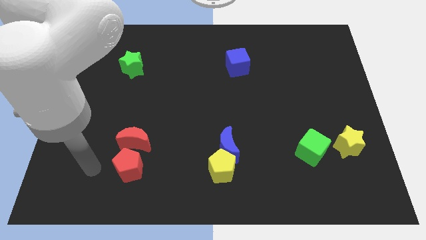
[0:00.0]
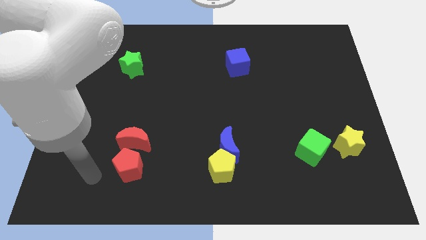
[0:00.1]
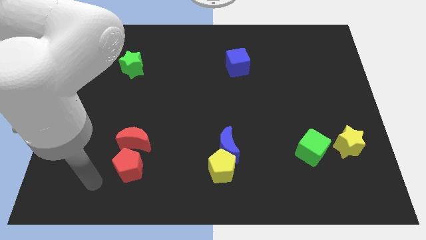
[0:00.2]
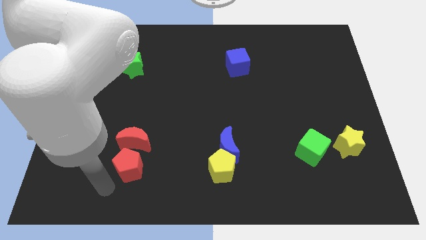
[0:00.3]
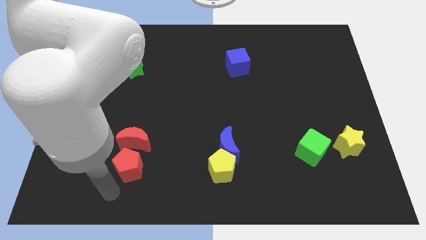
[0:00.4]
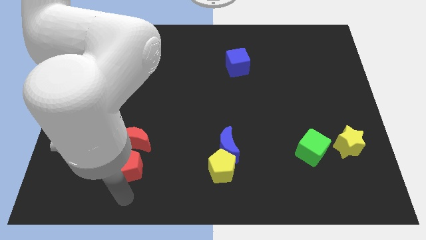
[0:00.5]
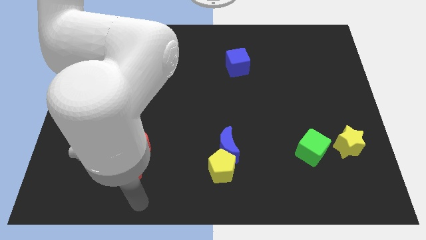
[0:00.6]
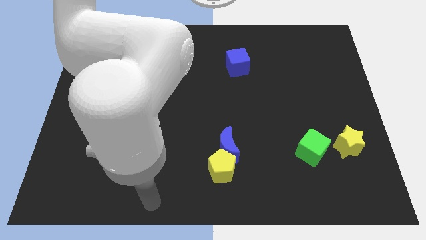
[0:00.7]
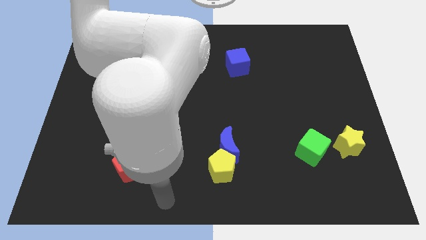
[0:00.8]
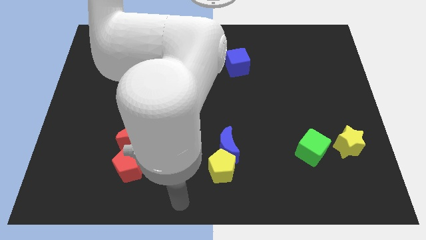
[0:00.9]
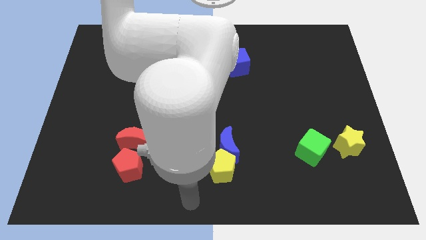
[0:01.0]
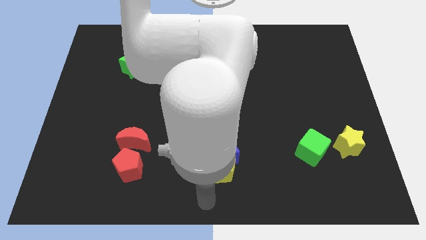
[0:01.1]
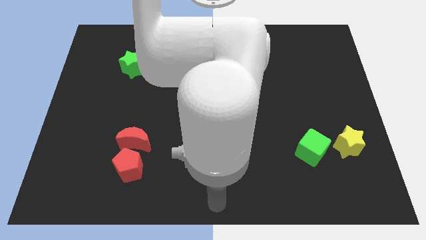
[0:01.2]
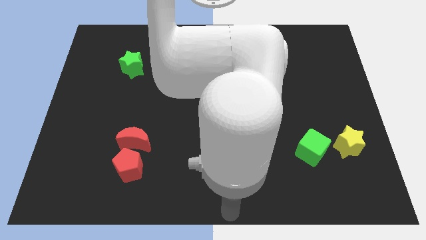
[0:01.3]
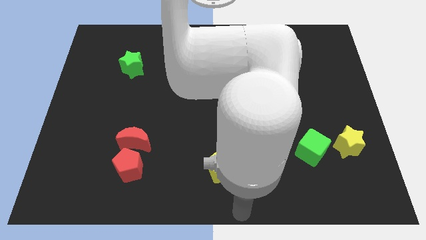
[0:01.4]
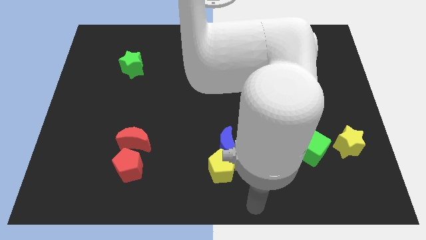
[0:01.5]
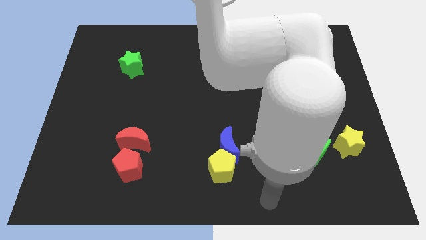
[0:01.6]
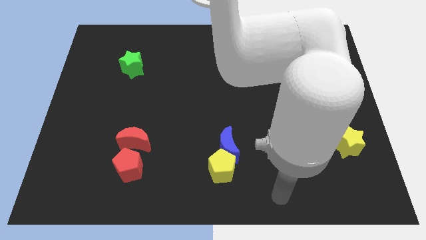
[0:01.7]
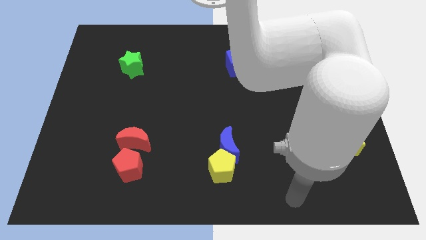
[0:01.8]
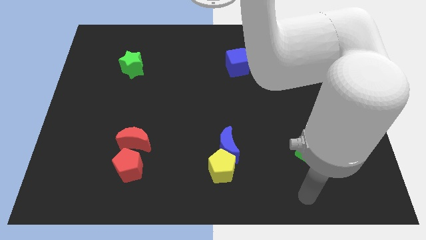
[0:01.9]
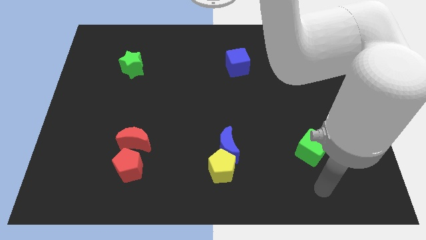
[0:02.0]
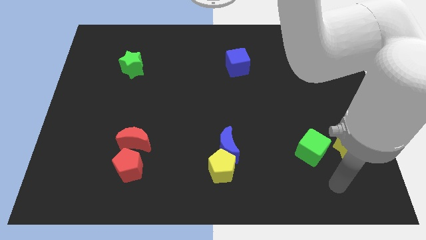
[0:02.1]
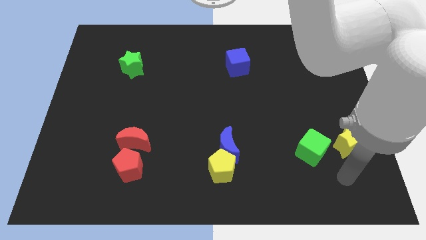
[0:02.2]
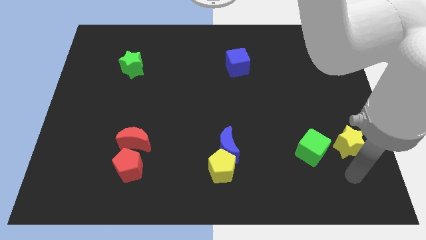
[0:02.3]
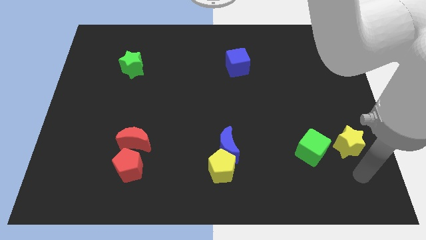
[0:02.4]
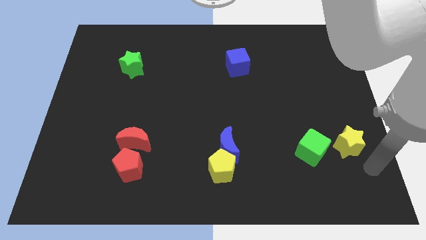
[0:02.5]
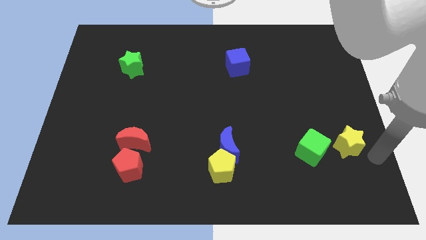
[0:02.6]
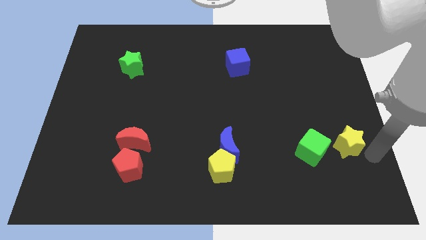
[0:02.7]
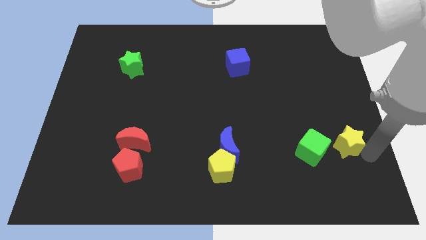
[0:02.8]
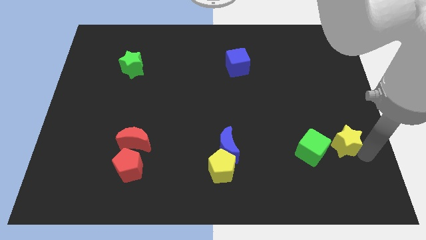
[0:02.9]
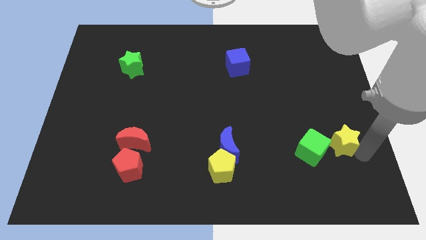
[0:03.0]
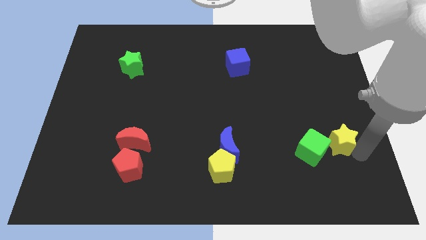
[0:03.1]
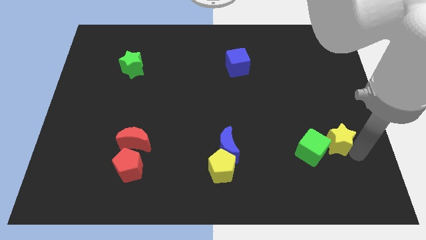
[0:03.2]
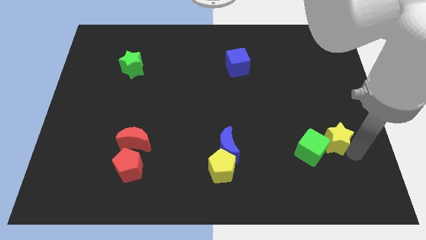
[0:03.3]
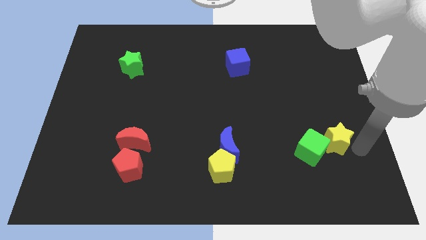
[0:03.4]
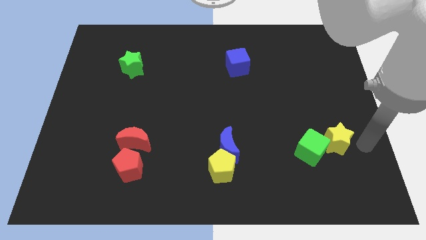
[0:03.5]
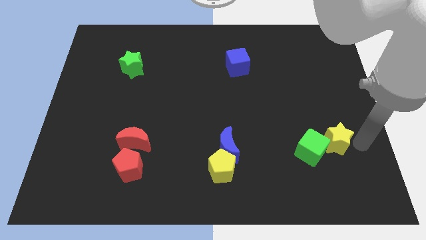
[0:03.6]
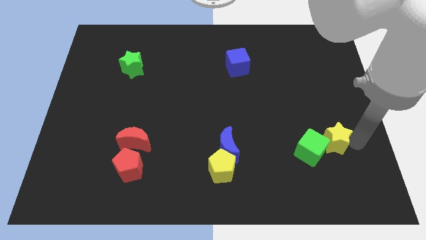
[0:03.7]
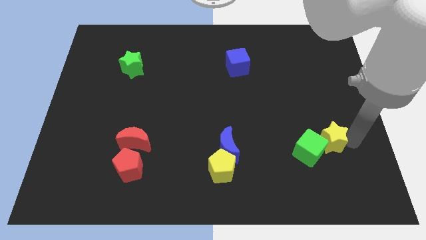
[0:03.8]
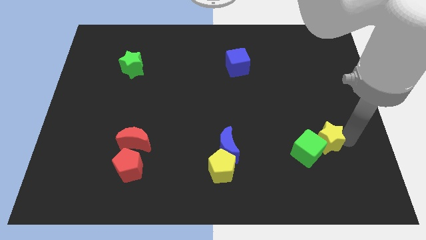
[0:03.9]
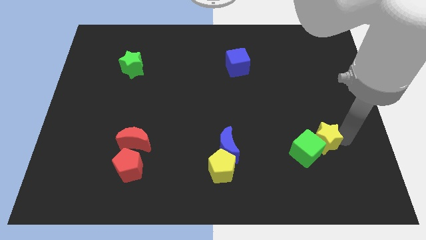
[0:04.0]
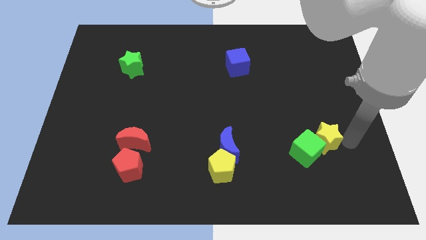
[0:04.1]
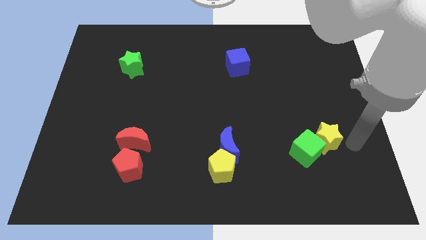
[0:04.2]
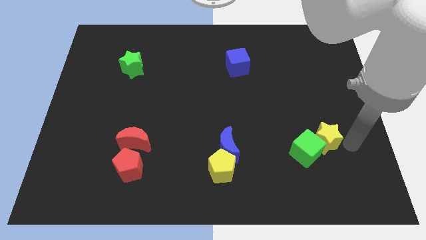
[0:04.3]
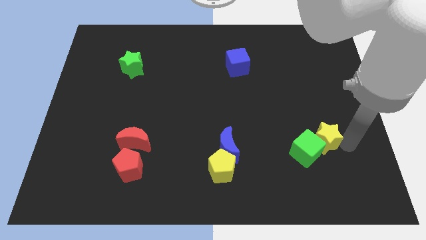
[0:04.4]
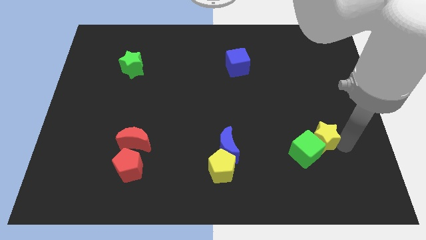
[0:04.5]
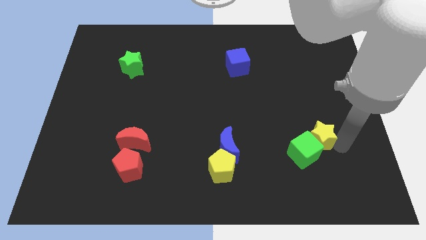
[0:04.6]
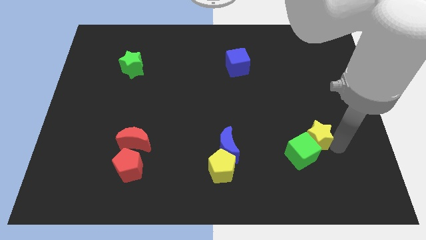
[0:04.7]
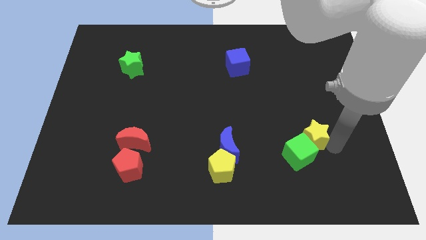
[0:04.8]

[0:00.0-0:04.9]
push the yellow star a little bit left

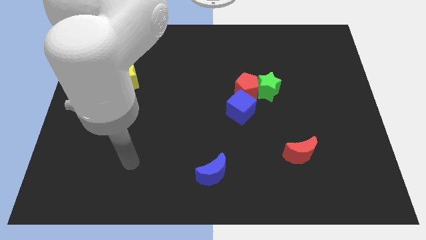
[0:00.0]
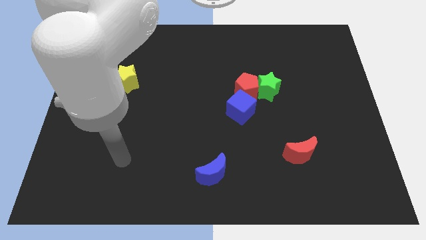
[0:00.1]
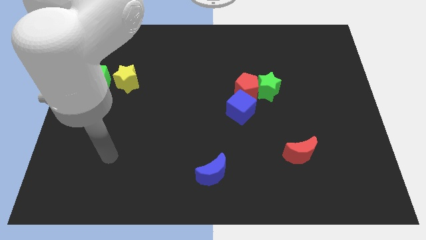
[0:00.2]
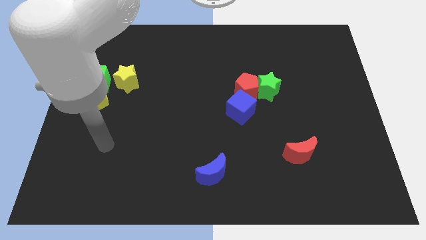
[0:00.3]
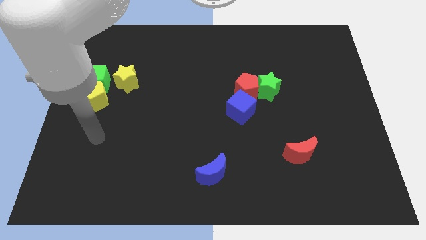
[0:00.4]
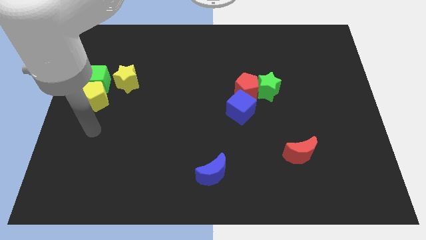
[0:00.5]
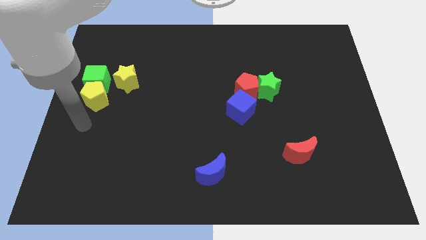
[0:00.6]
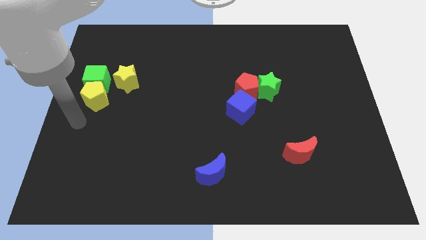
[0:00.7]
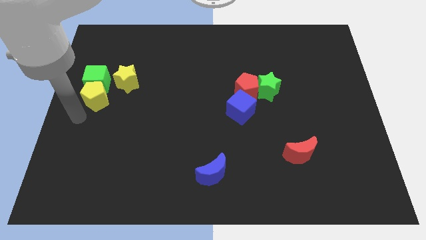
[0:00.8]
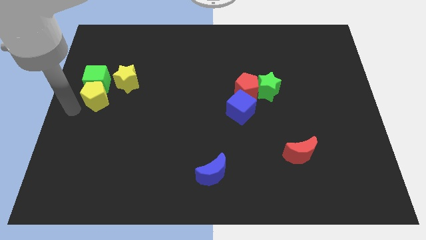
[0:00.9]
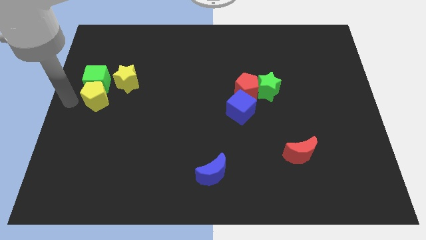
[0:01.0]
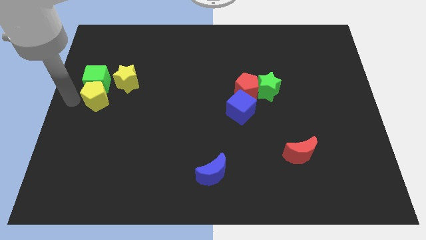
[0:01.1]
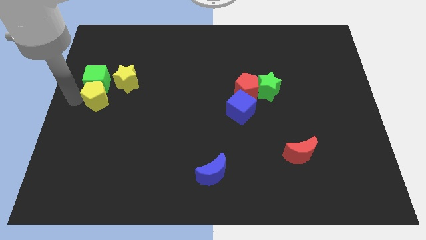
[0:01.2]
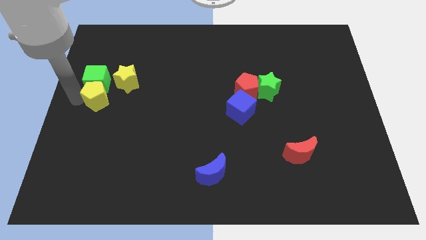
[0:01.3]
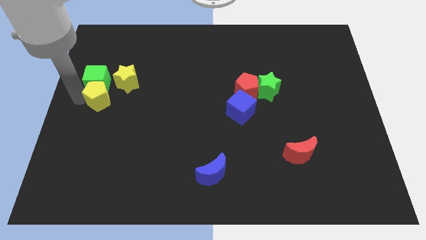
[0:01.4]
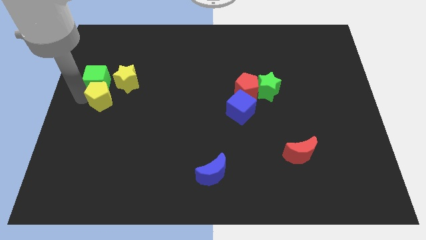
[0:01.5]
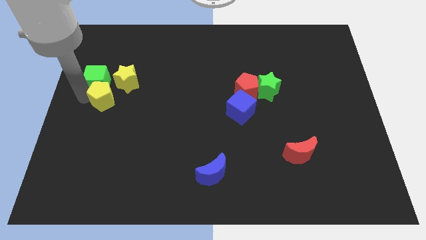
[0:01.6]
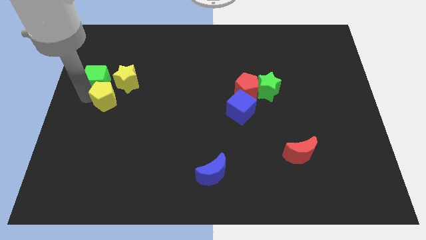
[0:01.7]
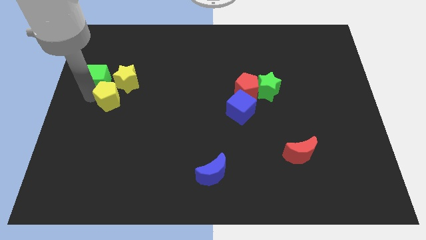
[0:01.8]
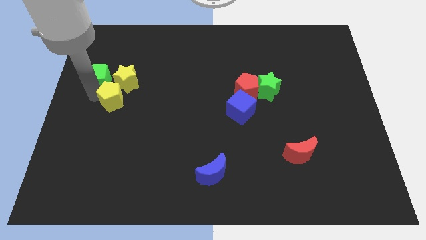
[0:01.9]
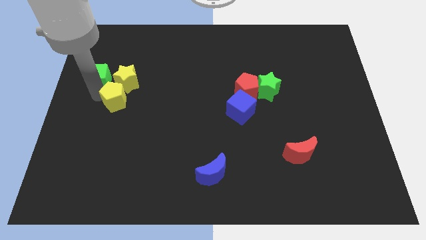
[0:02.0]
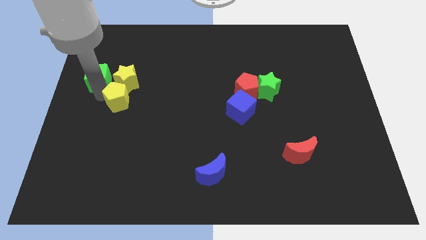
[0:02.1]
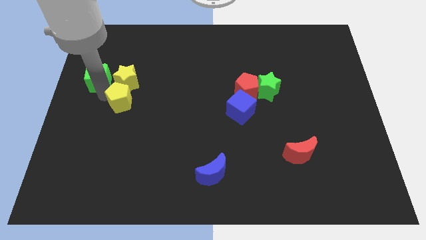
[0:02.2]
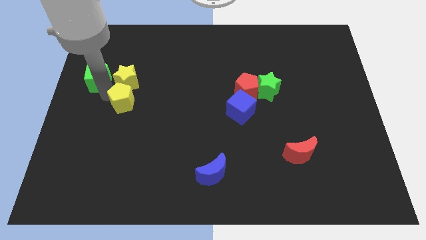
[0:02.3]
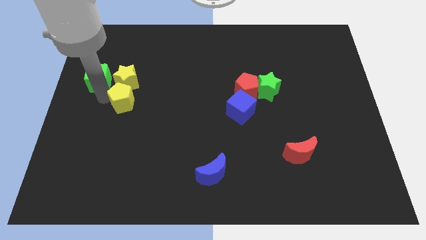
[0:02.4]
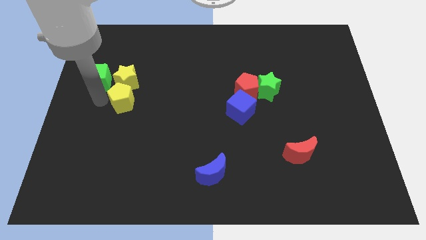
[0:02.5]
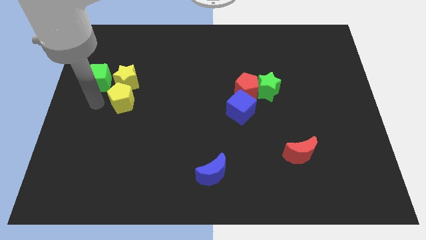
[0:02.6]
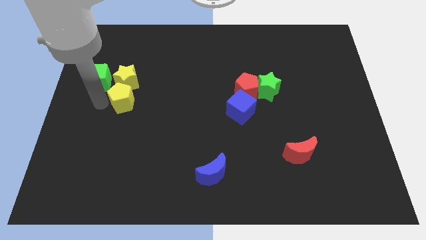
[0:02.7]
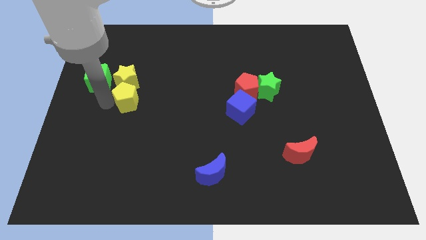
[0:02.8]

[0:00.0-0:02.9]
slightly move the yellow pentagon right
